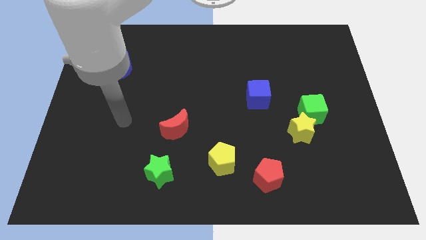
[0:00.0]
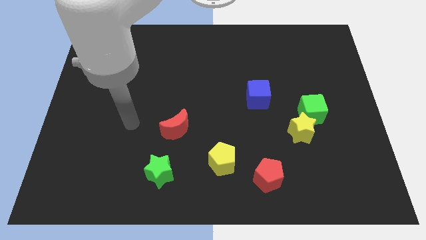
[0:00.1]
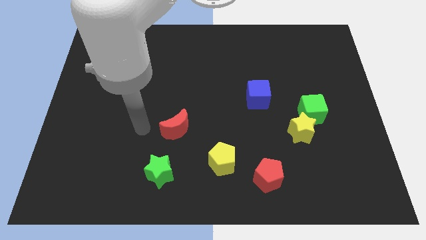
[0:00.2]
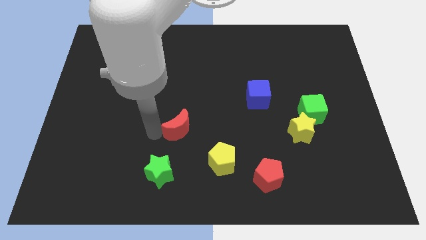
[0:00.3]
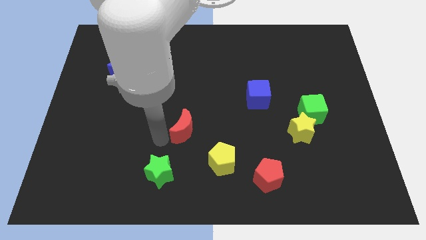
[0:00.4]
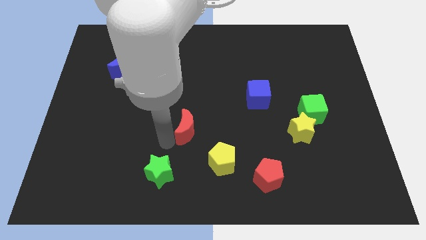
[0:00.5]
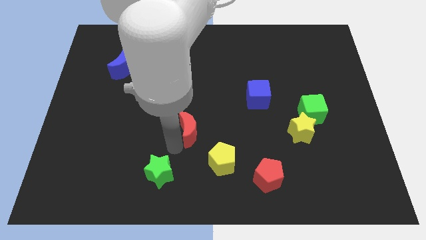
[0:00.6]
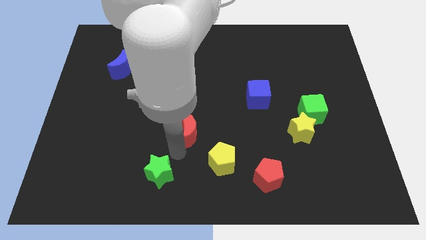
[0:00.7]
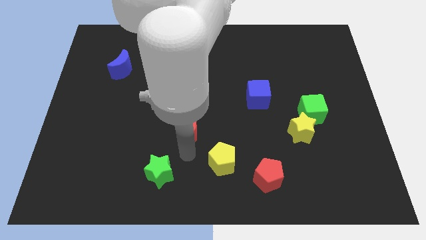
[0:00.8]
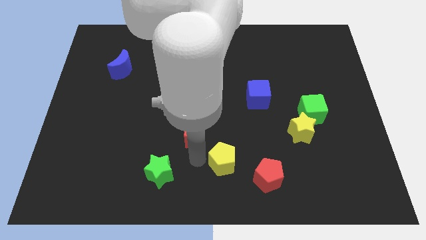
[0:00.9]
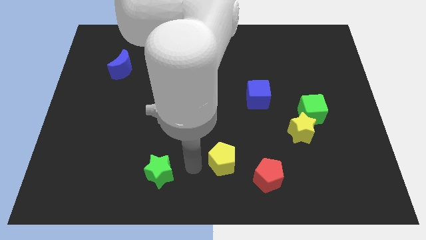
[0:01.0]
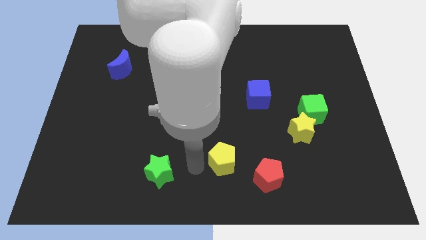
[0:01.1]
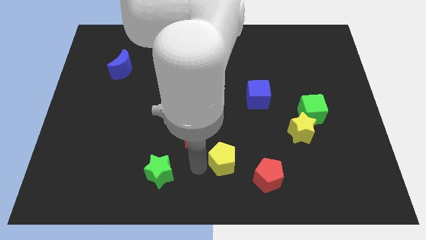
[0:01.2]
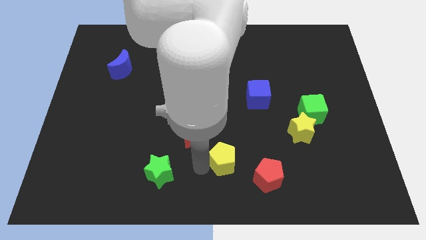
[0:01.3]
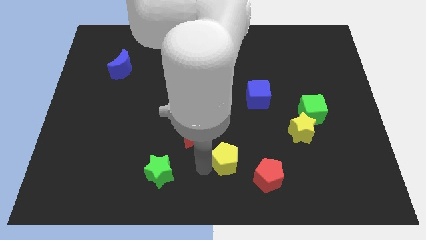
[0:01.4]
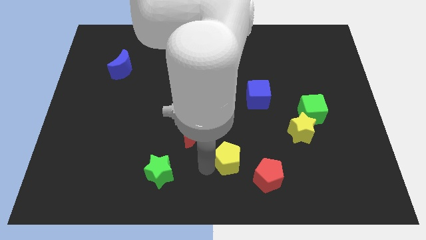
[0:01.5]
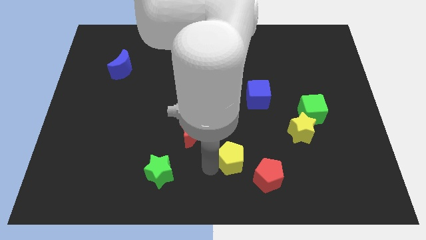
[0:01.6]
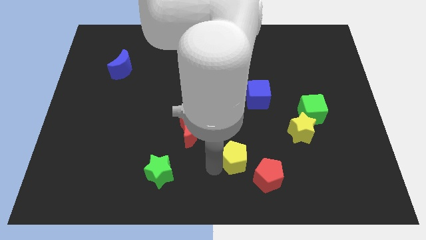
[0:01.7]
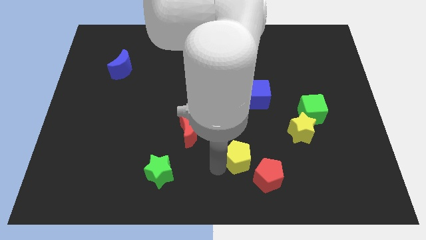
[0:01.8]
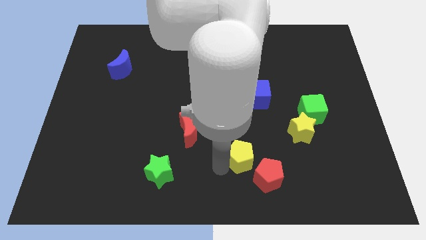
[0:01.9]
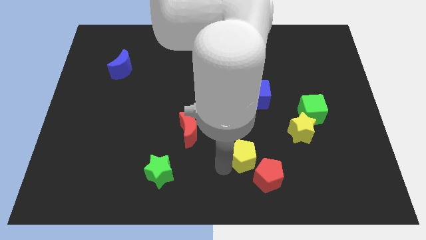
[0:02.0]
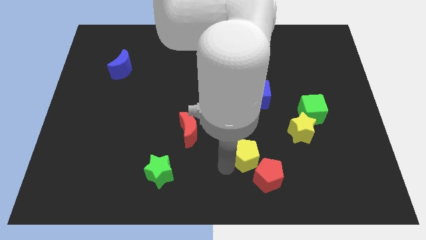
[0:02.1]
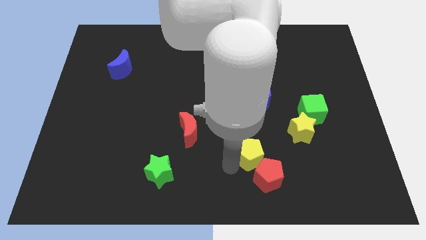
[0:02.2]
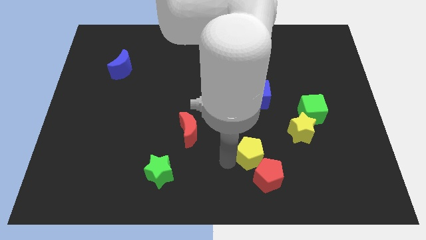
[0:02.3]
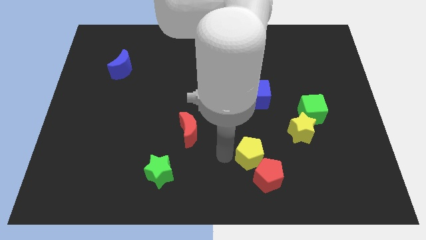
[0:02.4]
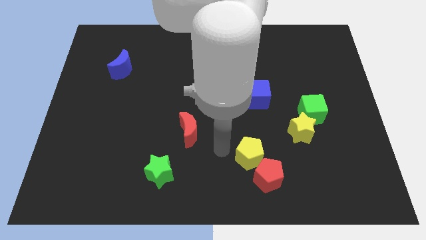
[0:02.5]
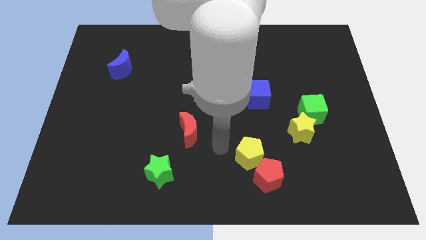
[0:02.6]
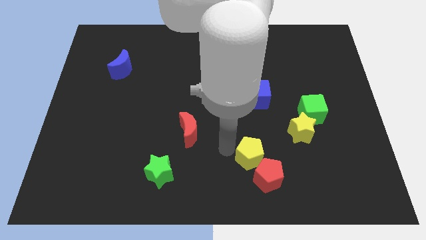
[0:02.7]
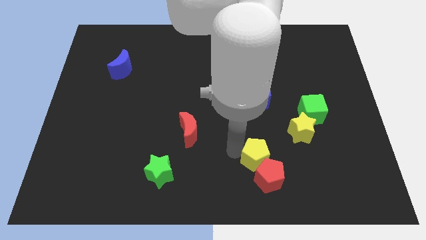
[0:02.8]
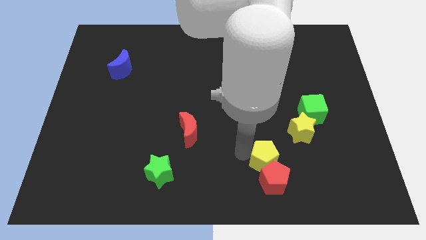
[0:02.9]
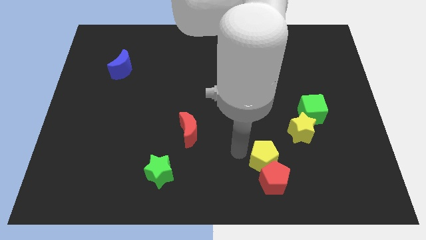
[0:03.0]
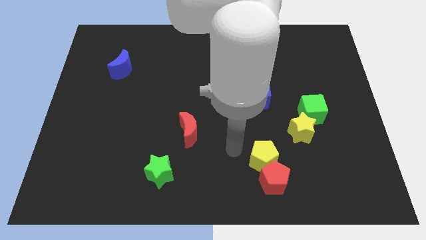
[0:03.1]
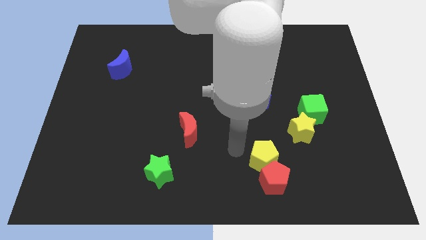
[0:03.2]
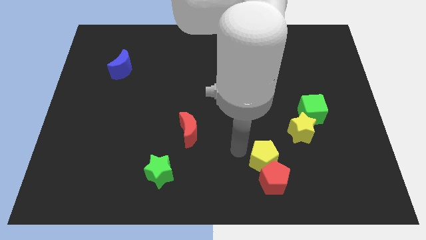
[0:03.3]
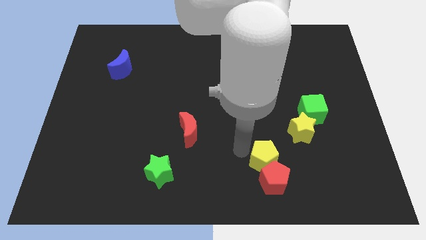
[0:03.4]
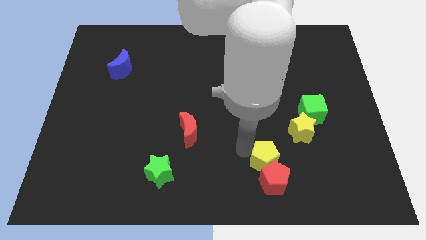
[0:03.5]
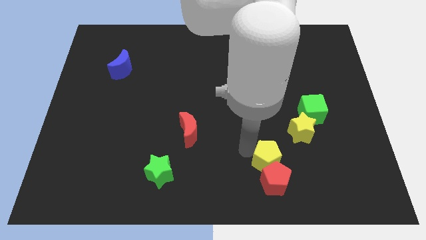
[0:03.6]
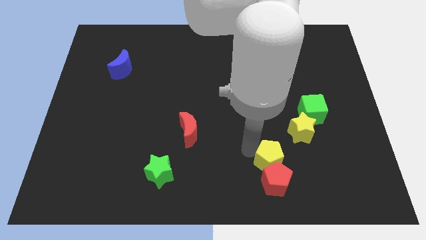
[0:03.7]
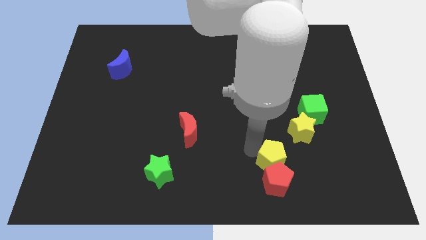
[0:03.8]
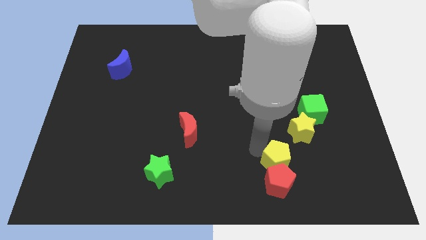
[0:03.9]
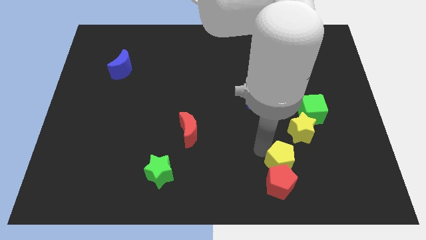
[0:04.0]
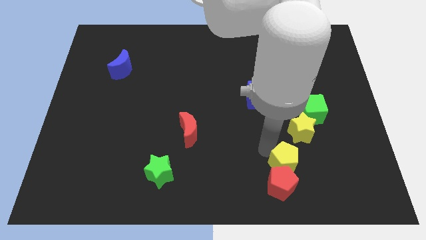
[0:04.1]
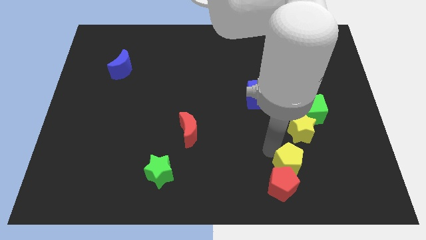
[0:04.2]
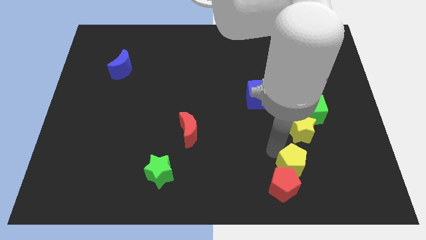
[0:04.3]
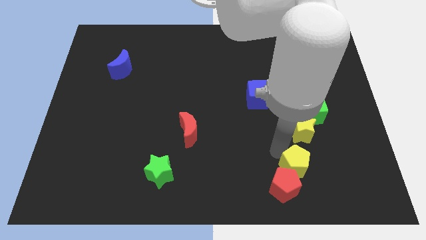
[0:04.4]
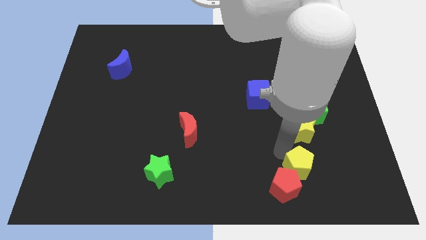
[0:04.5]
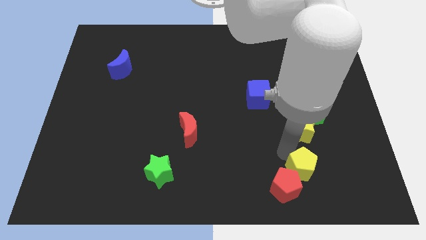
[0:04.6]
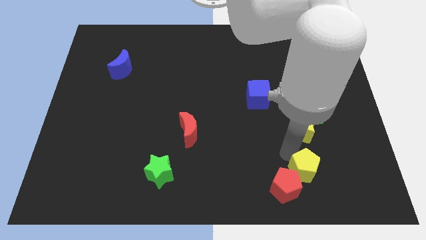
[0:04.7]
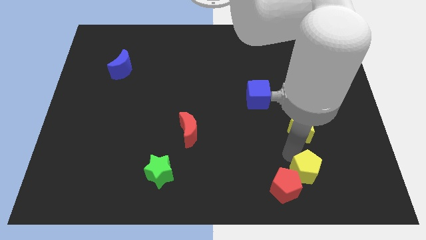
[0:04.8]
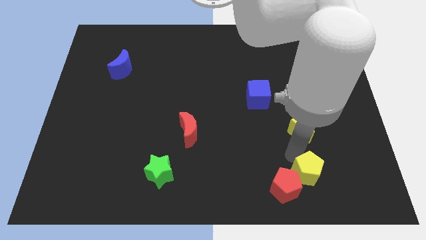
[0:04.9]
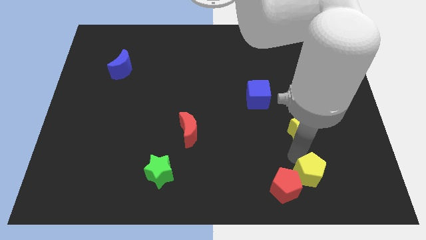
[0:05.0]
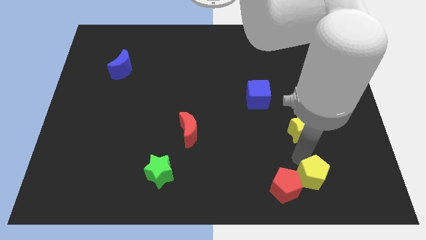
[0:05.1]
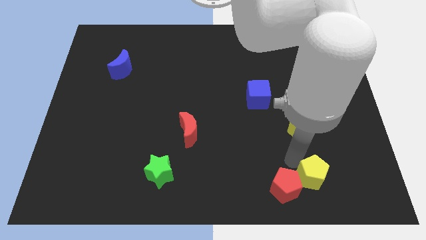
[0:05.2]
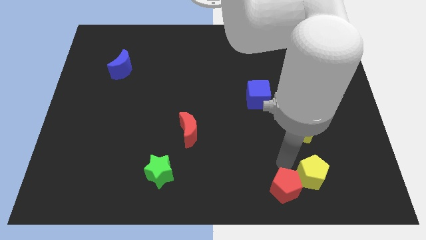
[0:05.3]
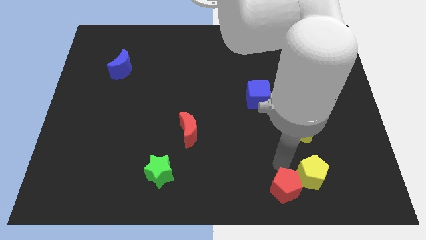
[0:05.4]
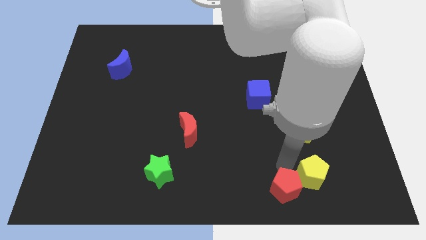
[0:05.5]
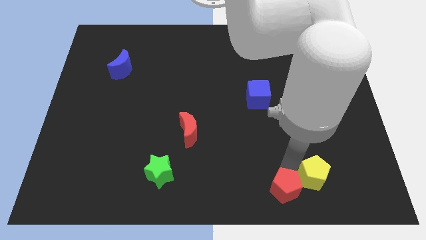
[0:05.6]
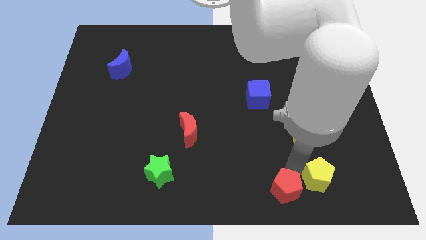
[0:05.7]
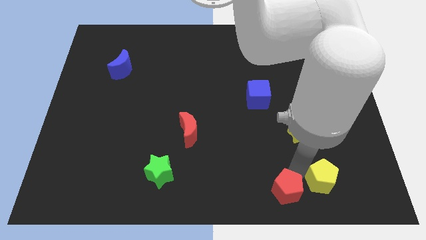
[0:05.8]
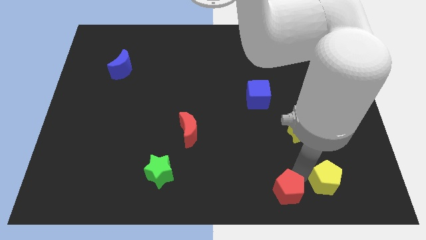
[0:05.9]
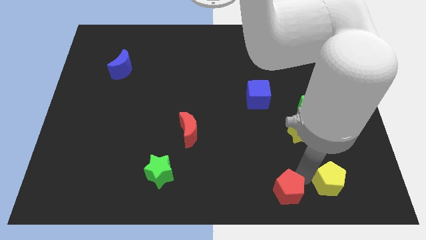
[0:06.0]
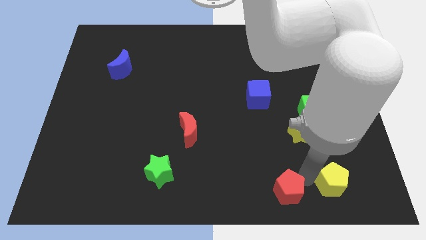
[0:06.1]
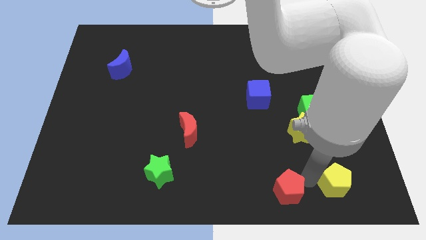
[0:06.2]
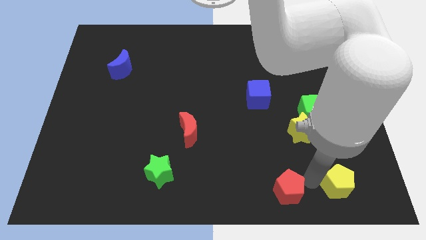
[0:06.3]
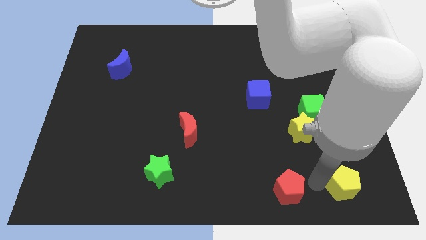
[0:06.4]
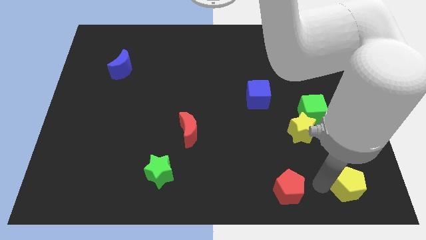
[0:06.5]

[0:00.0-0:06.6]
slide the yellow pentagon to the lower right corner

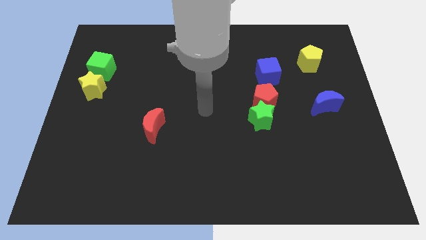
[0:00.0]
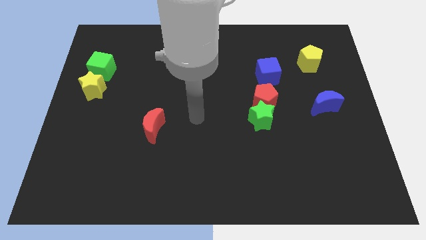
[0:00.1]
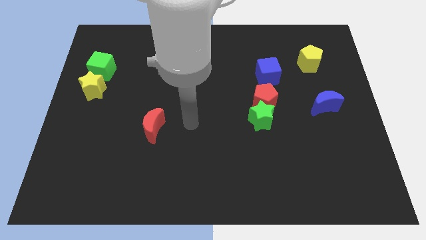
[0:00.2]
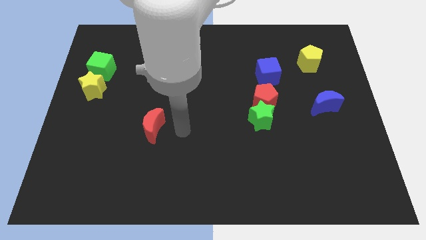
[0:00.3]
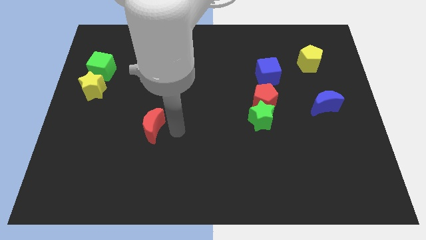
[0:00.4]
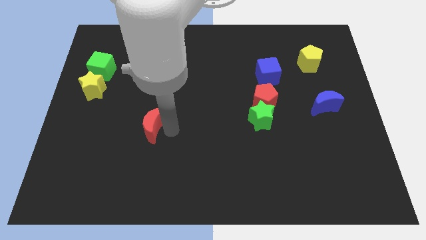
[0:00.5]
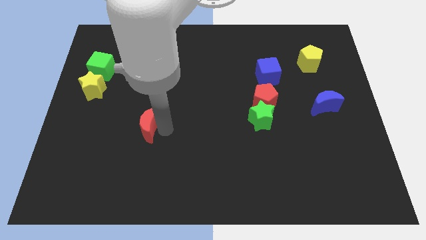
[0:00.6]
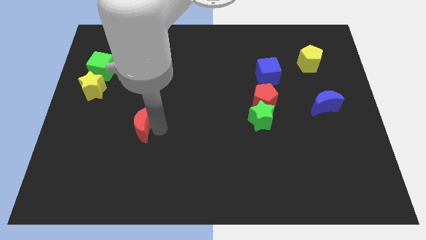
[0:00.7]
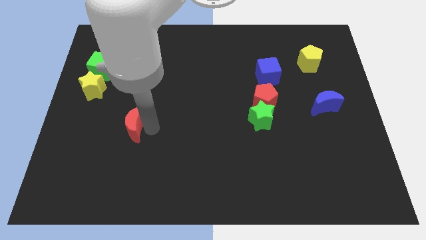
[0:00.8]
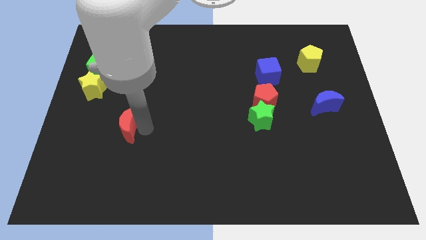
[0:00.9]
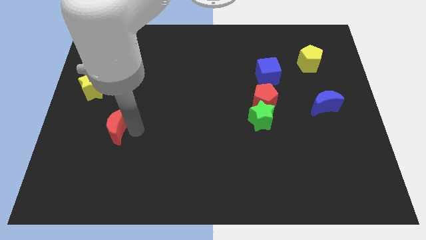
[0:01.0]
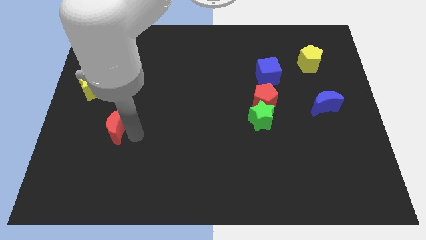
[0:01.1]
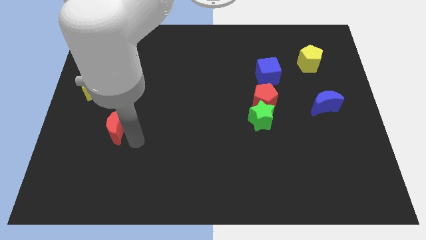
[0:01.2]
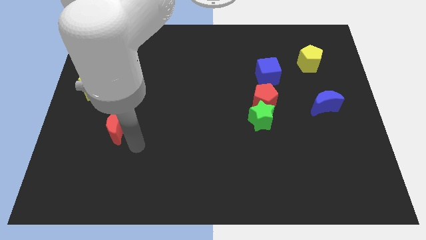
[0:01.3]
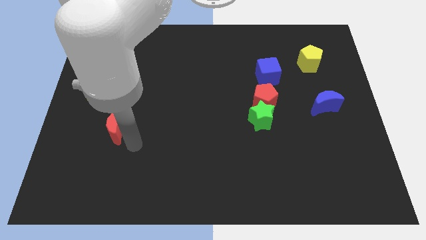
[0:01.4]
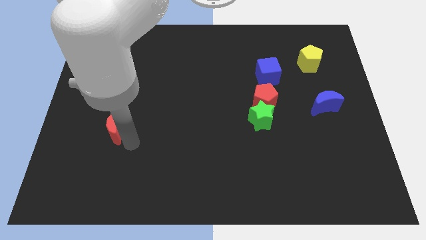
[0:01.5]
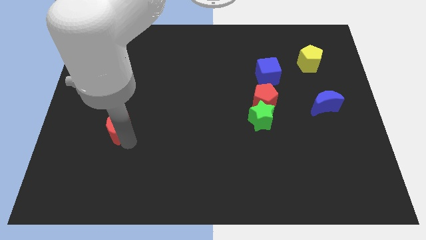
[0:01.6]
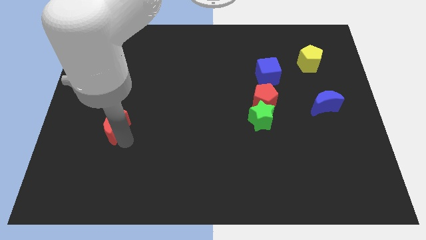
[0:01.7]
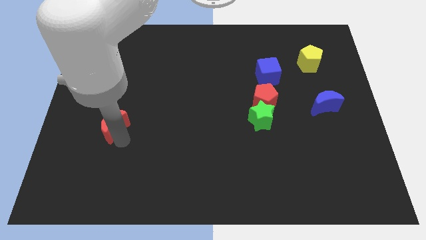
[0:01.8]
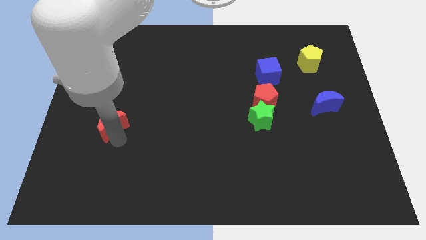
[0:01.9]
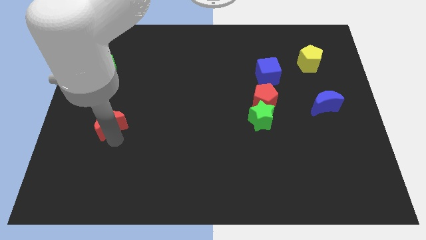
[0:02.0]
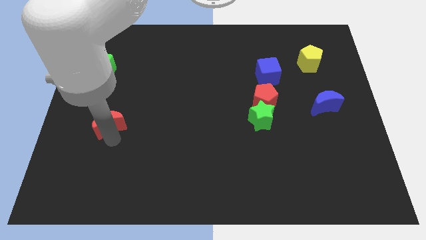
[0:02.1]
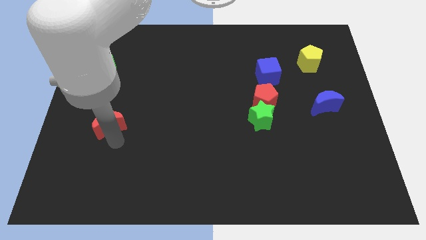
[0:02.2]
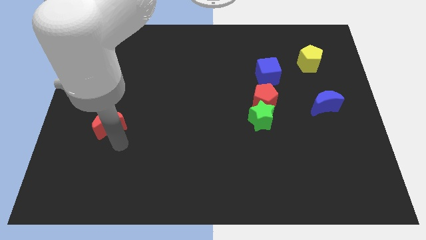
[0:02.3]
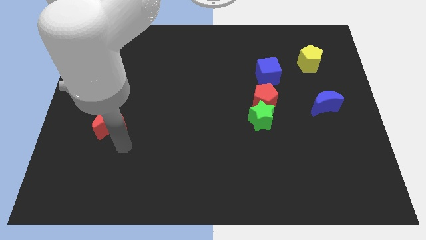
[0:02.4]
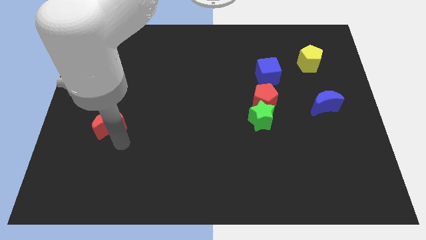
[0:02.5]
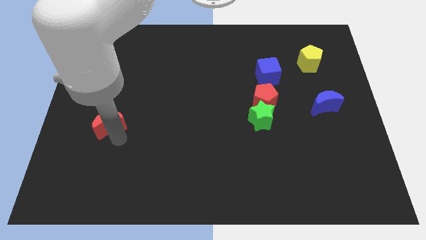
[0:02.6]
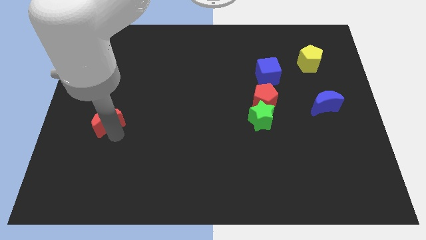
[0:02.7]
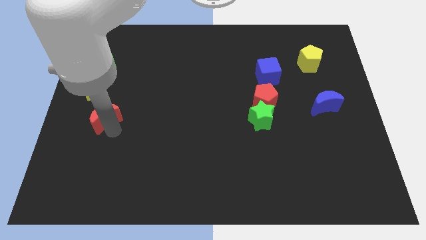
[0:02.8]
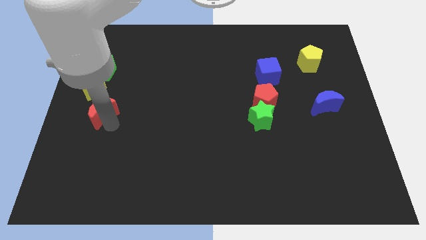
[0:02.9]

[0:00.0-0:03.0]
push the red moon to the left side
